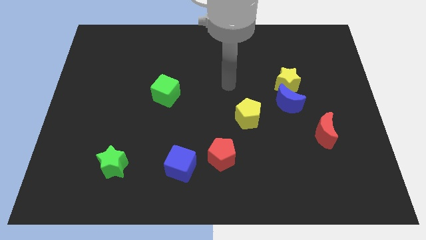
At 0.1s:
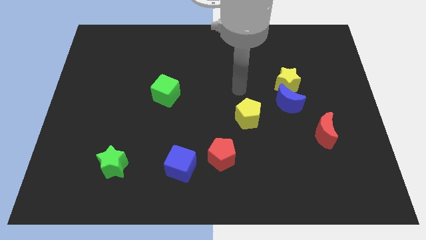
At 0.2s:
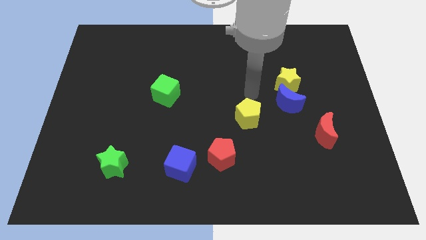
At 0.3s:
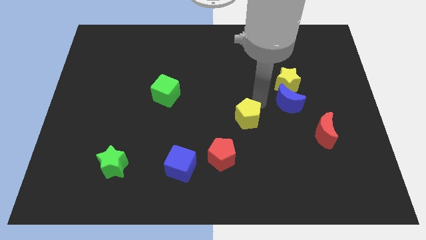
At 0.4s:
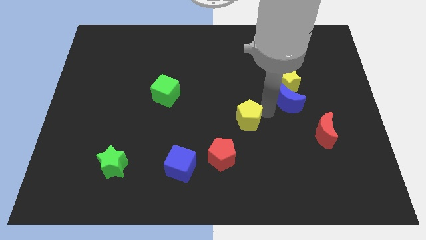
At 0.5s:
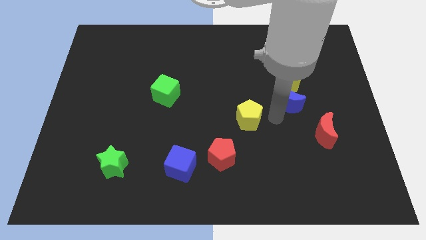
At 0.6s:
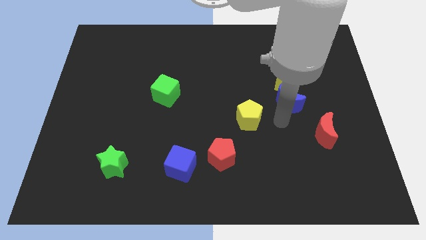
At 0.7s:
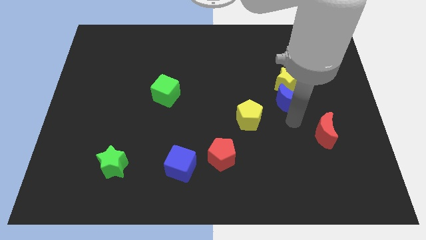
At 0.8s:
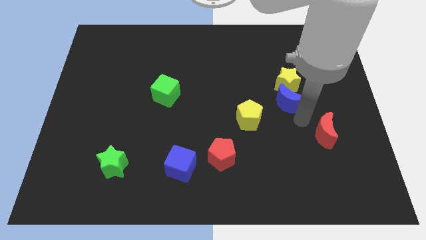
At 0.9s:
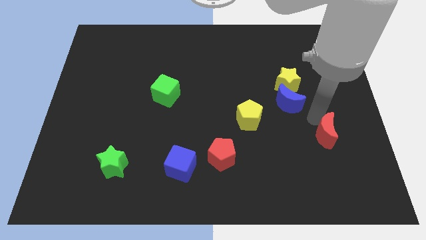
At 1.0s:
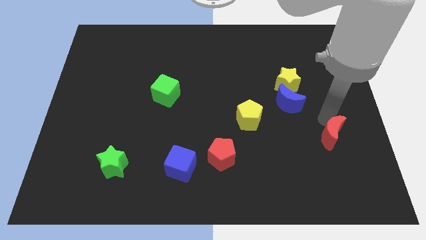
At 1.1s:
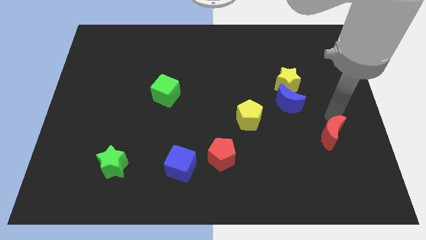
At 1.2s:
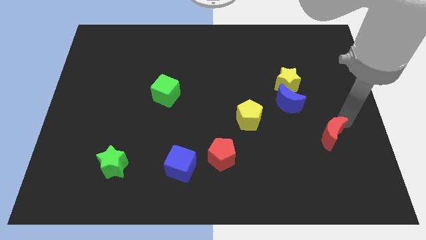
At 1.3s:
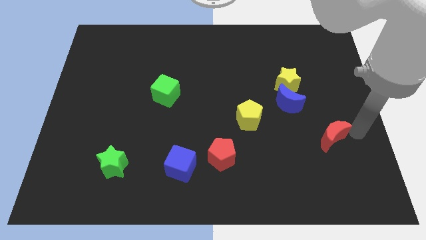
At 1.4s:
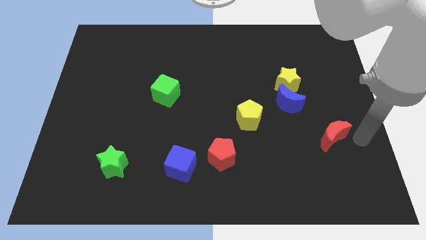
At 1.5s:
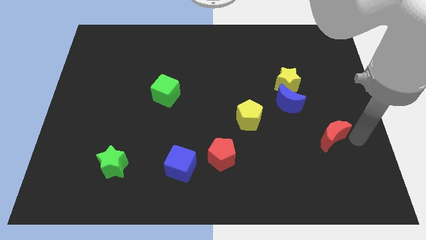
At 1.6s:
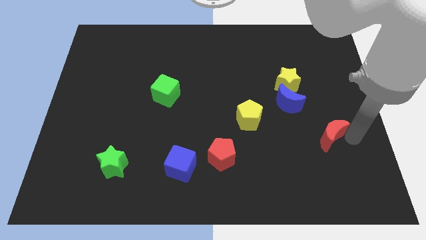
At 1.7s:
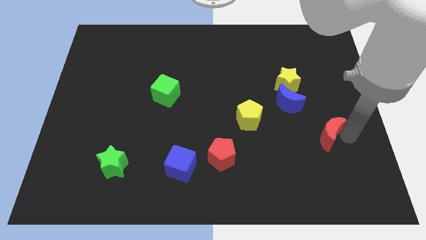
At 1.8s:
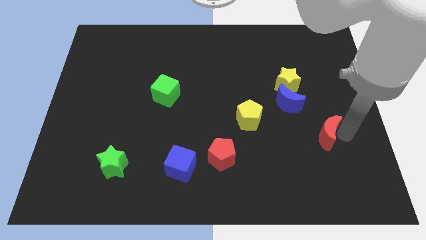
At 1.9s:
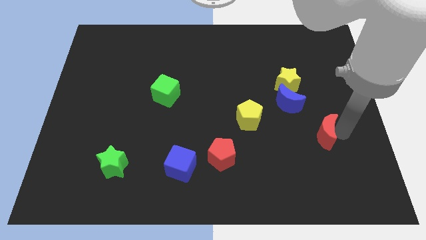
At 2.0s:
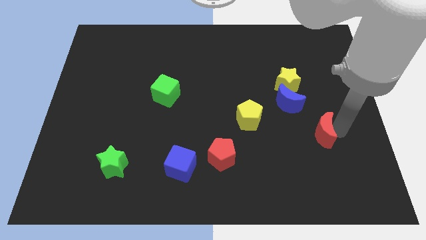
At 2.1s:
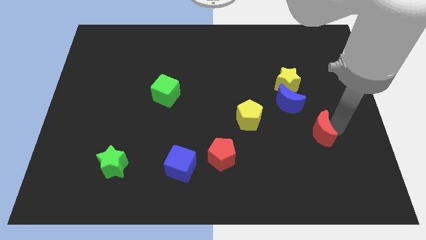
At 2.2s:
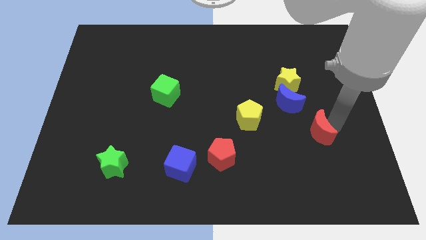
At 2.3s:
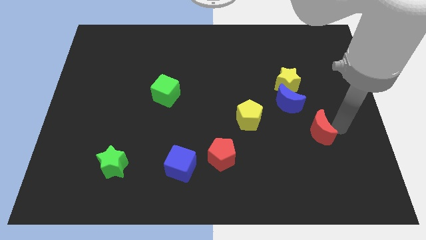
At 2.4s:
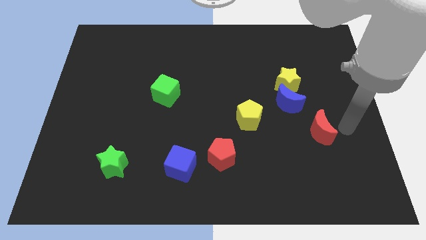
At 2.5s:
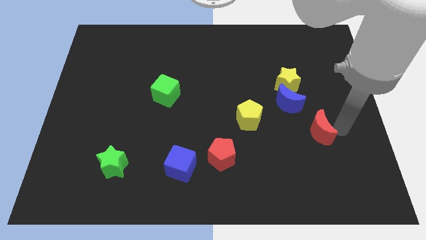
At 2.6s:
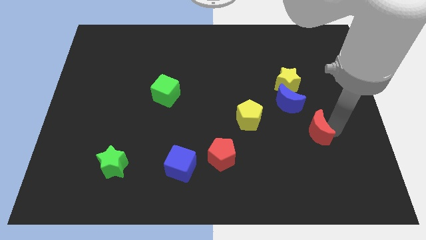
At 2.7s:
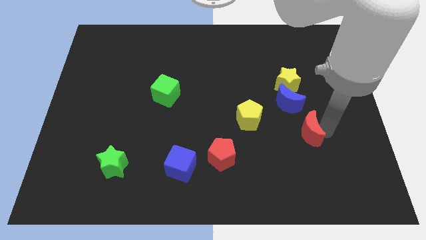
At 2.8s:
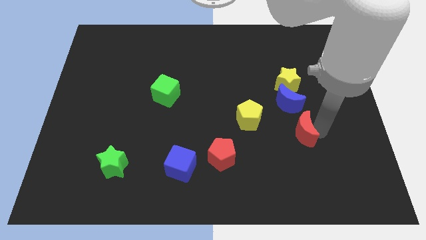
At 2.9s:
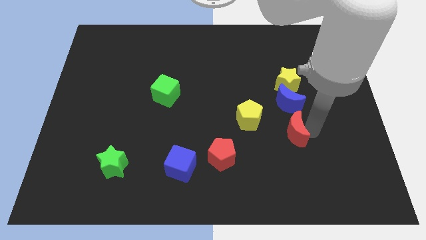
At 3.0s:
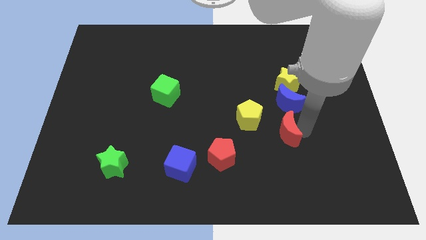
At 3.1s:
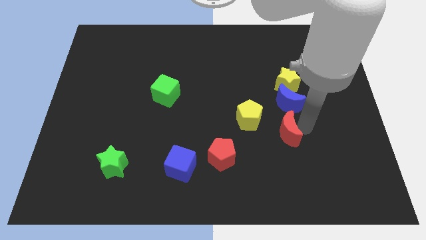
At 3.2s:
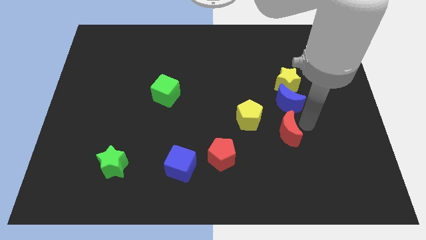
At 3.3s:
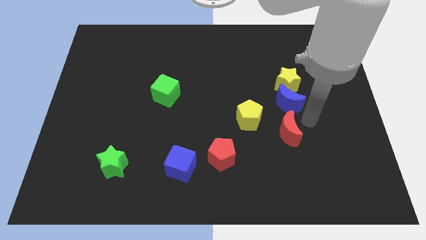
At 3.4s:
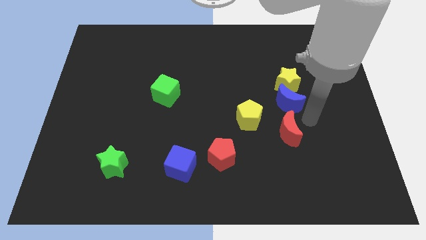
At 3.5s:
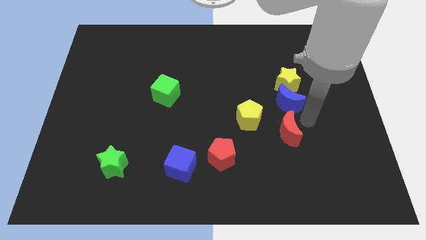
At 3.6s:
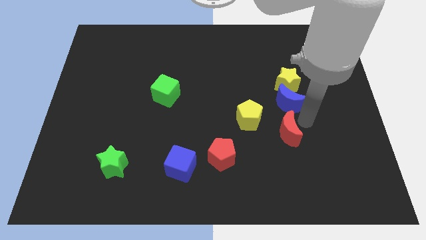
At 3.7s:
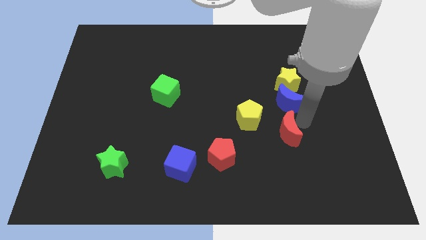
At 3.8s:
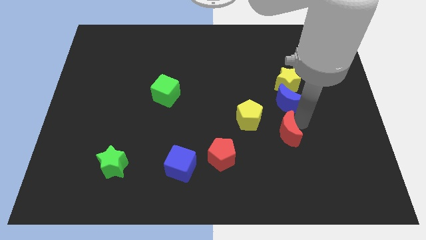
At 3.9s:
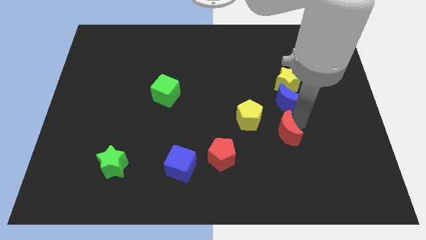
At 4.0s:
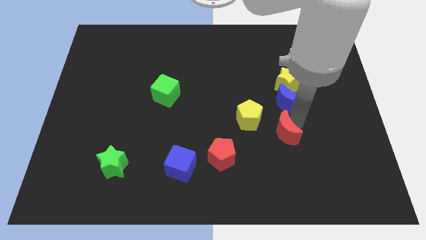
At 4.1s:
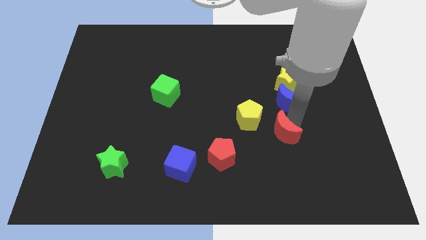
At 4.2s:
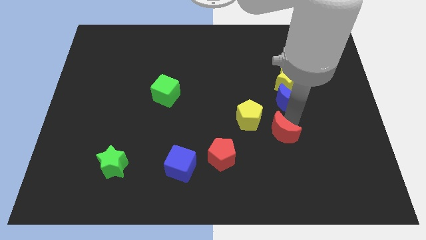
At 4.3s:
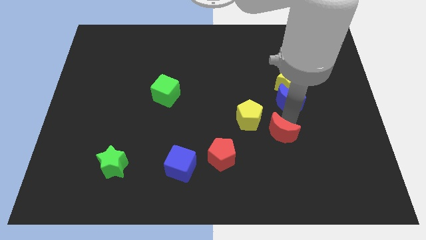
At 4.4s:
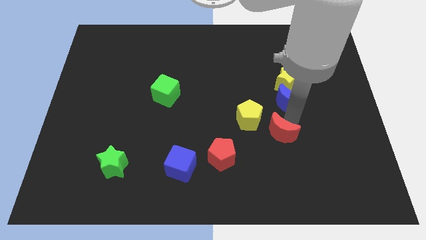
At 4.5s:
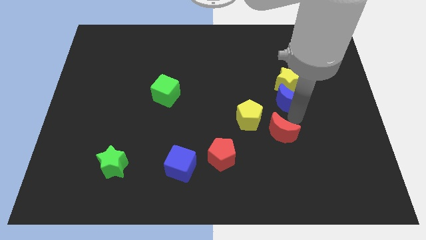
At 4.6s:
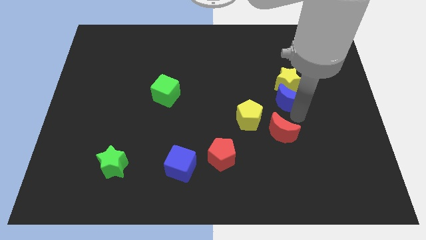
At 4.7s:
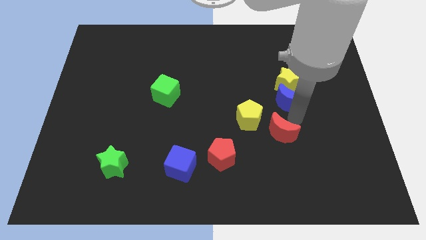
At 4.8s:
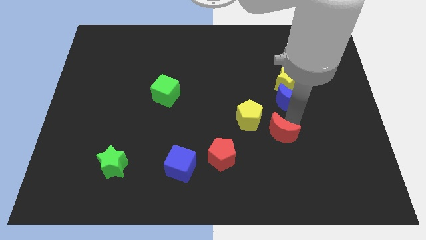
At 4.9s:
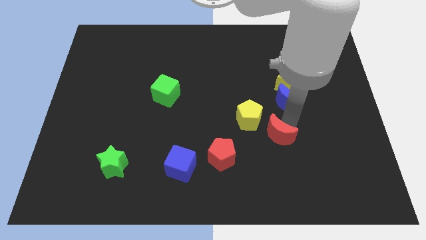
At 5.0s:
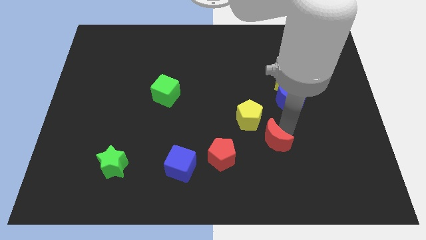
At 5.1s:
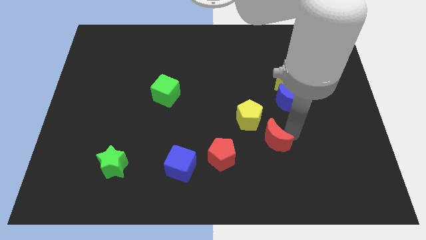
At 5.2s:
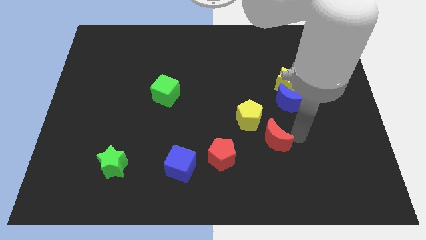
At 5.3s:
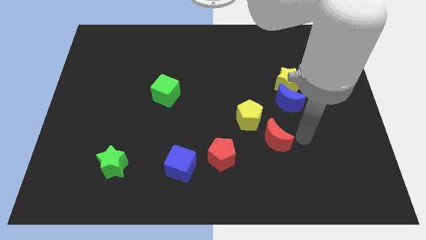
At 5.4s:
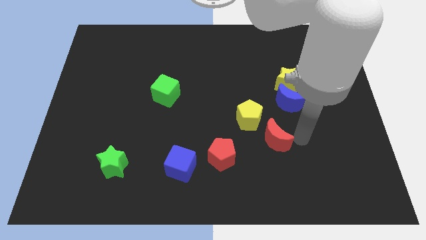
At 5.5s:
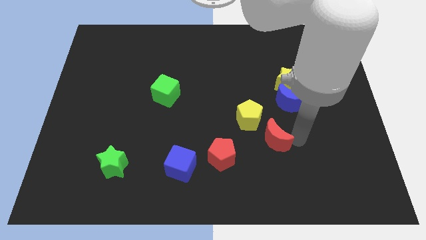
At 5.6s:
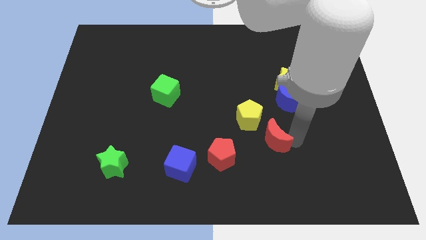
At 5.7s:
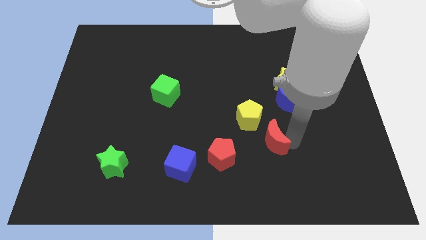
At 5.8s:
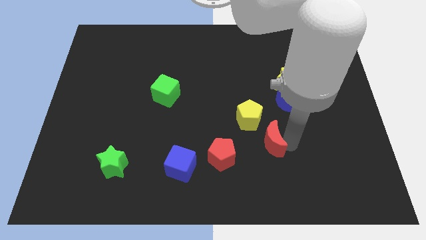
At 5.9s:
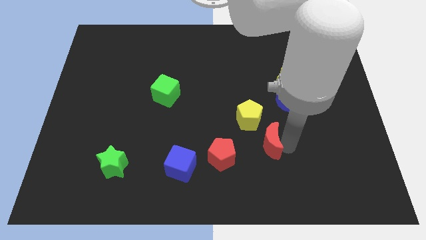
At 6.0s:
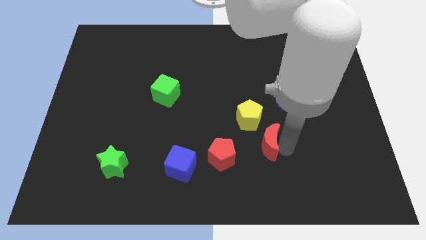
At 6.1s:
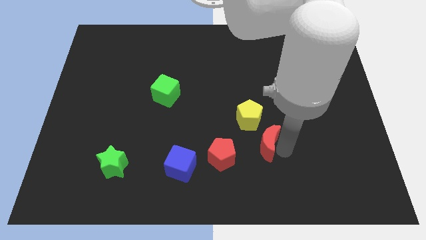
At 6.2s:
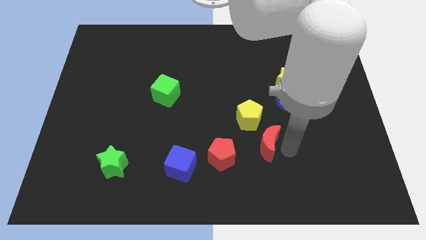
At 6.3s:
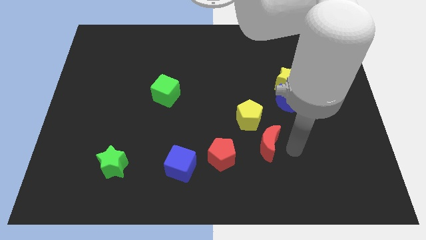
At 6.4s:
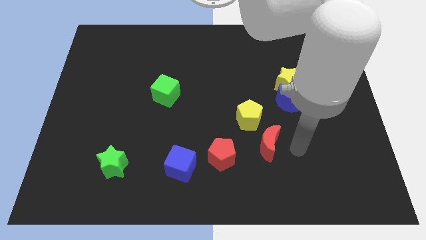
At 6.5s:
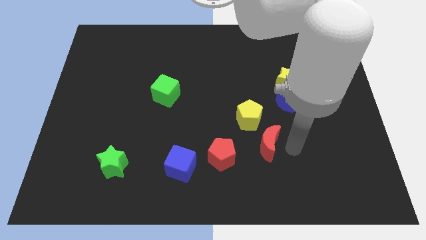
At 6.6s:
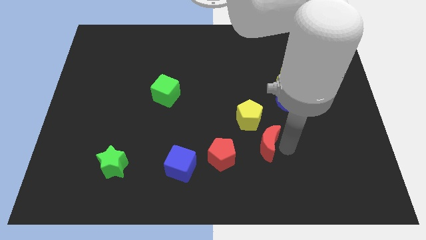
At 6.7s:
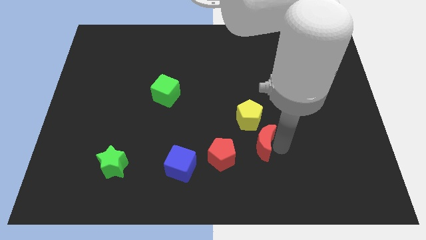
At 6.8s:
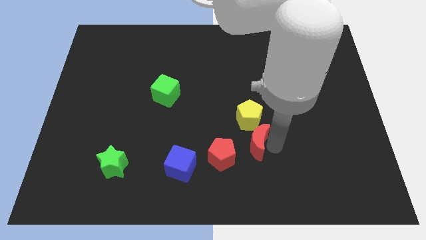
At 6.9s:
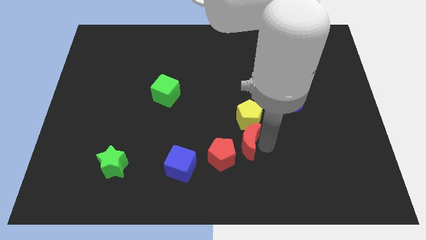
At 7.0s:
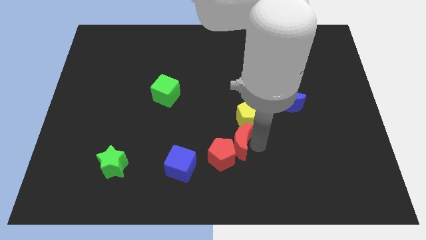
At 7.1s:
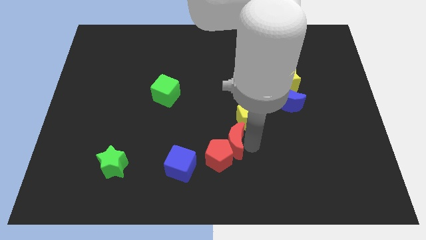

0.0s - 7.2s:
push the red moon left

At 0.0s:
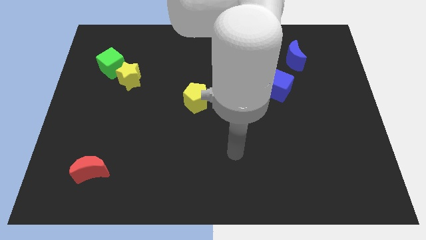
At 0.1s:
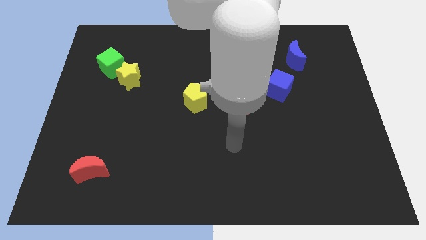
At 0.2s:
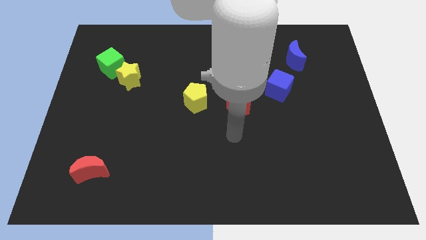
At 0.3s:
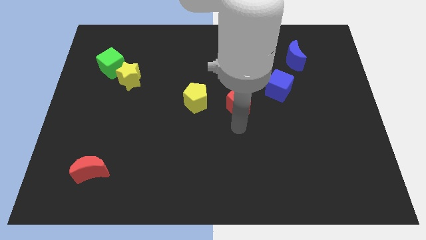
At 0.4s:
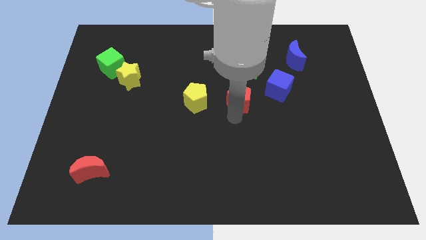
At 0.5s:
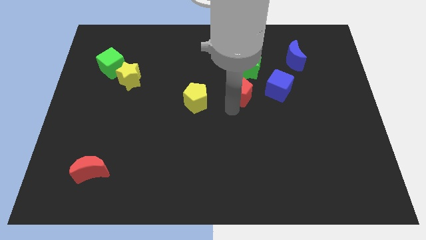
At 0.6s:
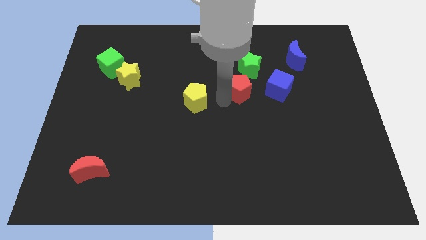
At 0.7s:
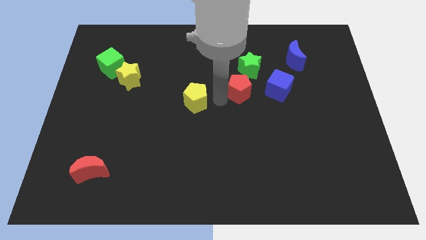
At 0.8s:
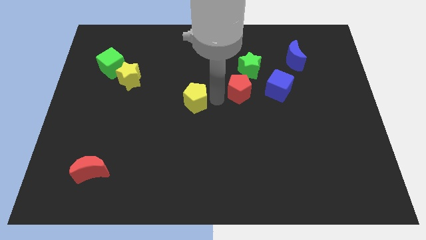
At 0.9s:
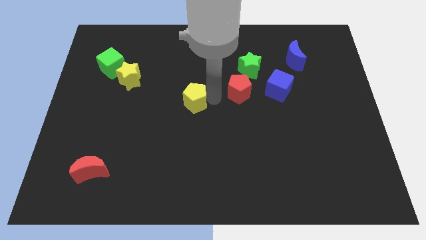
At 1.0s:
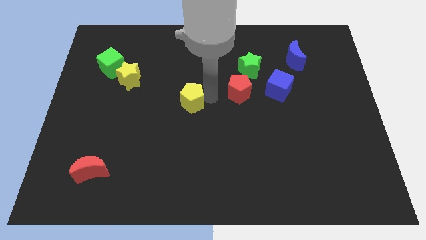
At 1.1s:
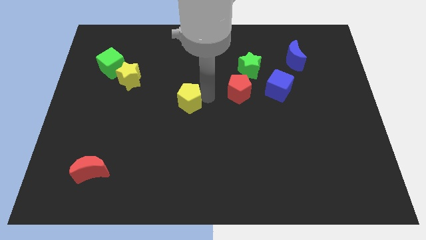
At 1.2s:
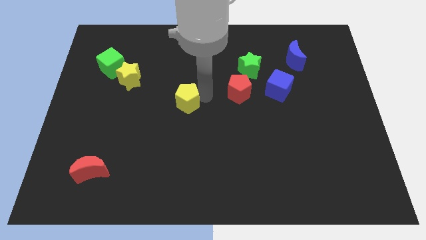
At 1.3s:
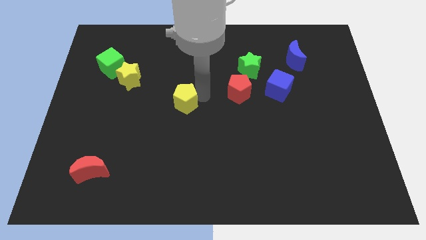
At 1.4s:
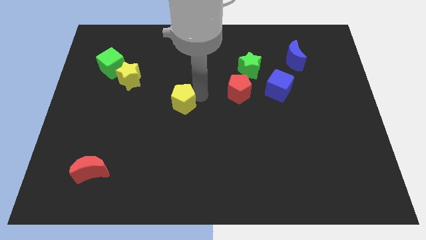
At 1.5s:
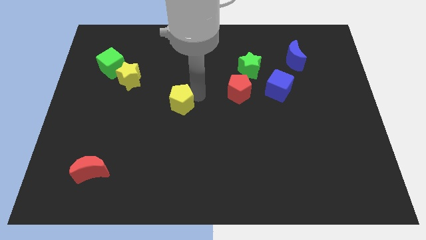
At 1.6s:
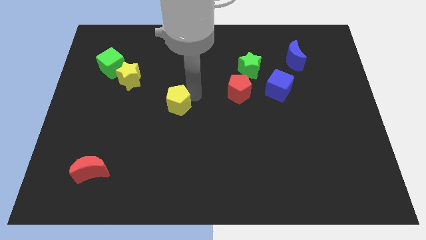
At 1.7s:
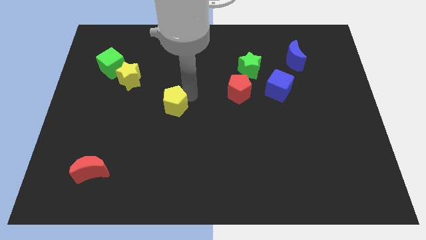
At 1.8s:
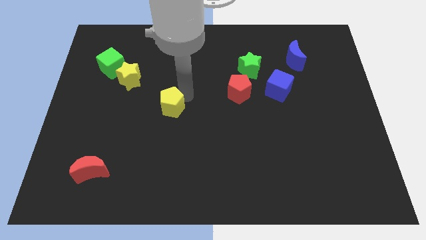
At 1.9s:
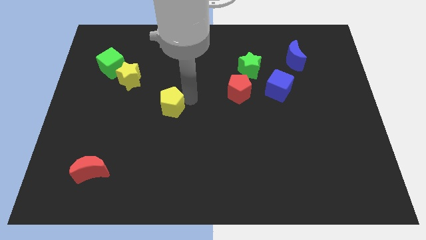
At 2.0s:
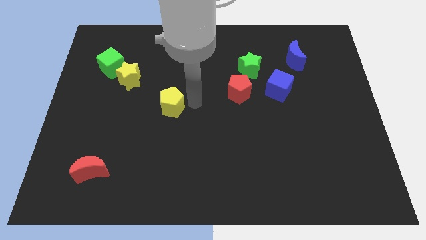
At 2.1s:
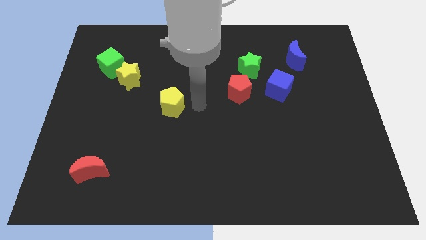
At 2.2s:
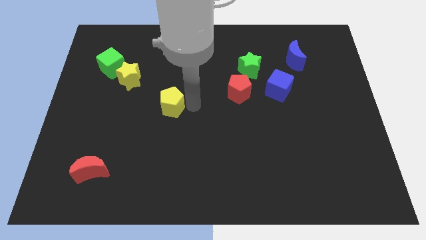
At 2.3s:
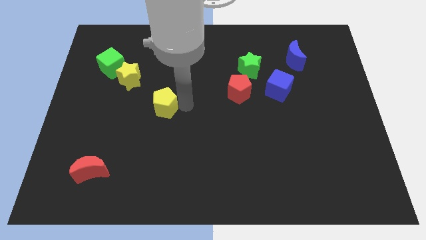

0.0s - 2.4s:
push the yellow pentagon to the left somewhat
